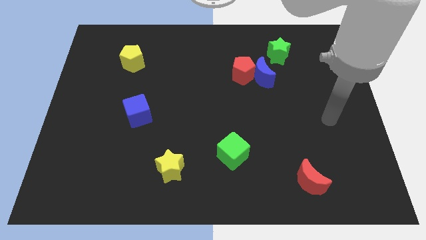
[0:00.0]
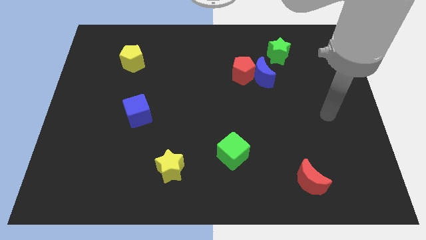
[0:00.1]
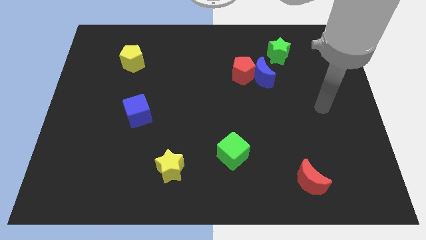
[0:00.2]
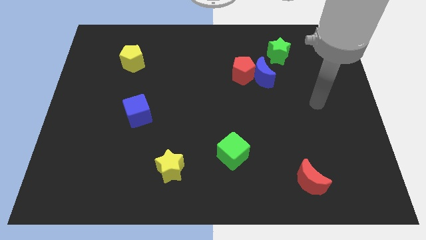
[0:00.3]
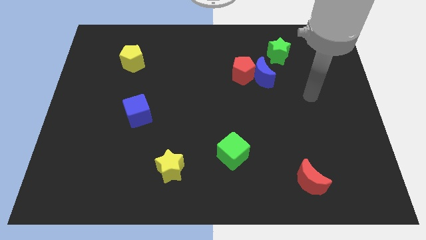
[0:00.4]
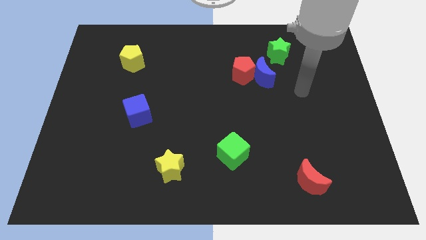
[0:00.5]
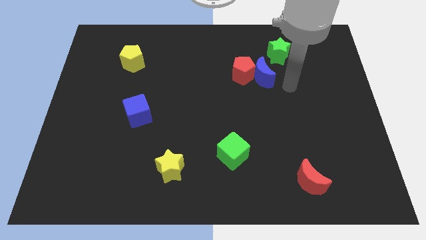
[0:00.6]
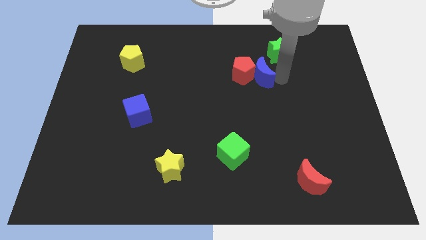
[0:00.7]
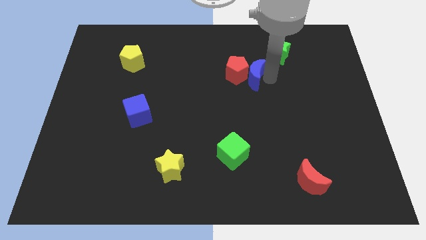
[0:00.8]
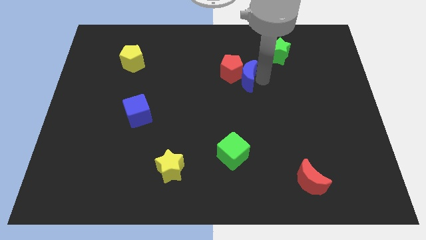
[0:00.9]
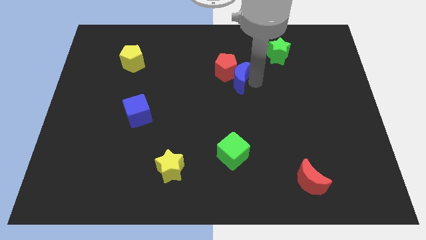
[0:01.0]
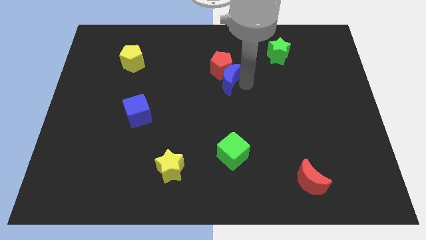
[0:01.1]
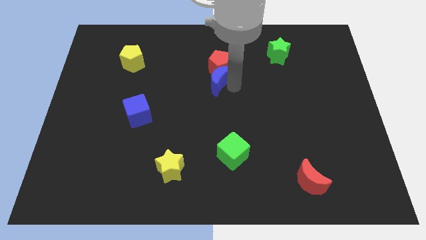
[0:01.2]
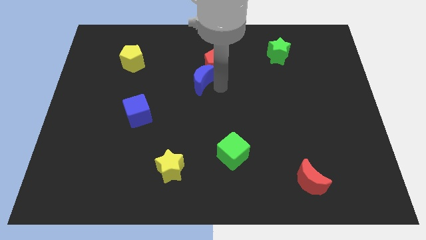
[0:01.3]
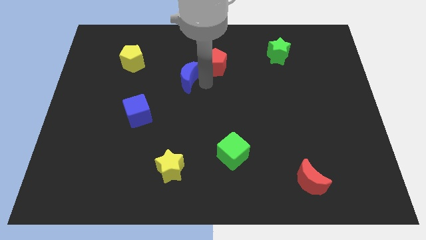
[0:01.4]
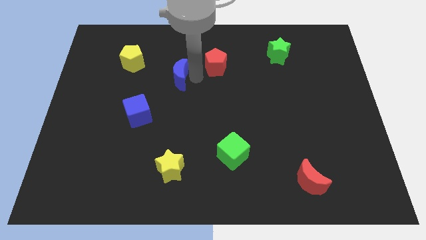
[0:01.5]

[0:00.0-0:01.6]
separate the red pentagon from the blue moon

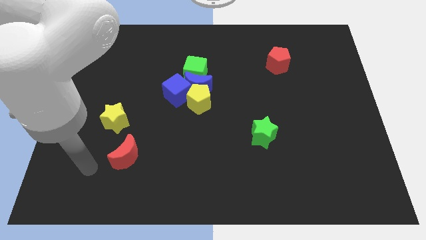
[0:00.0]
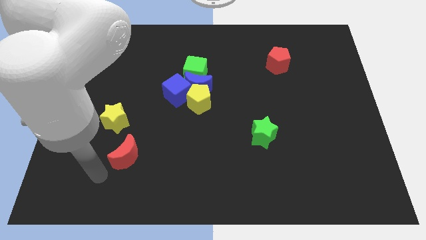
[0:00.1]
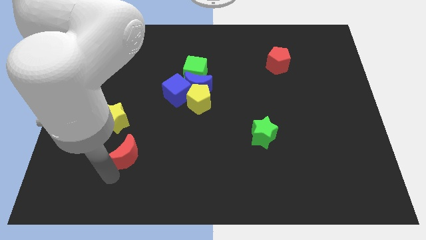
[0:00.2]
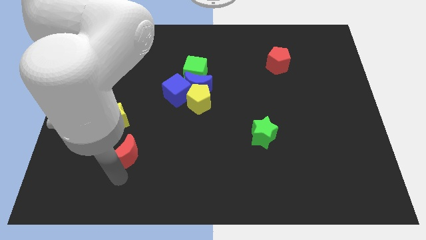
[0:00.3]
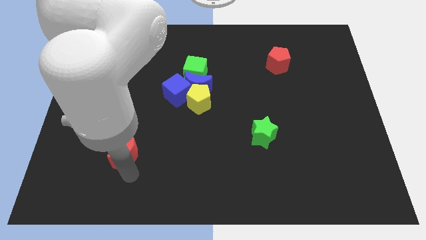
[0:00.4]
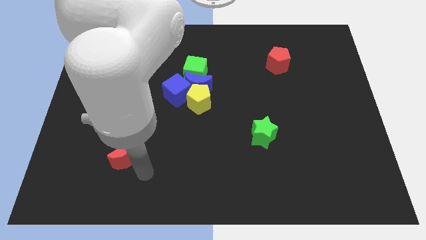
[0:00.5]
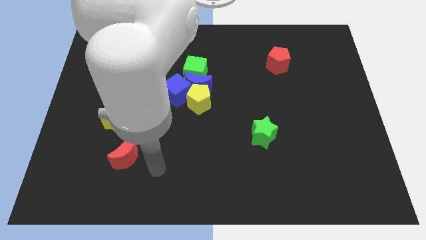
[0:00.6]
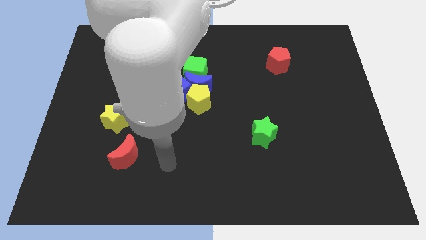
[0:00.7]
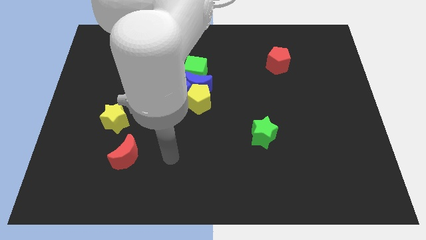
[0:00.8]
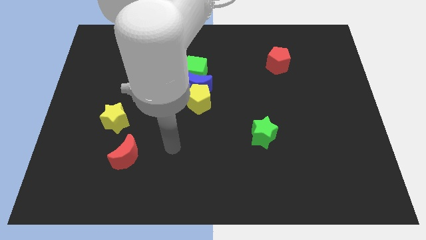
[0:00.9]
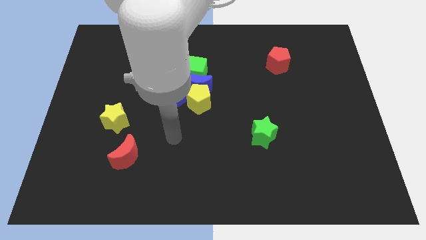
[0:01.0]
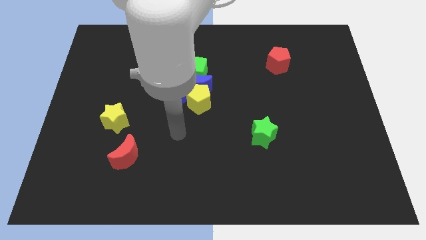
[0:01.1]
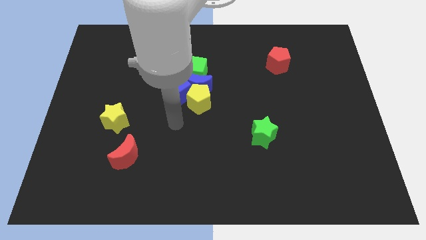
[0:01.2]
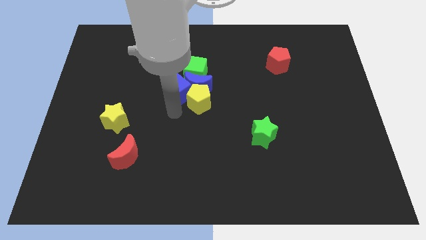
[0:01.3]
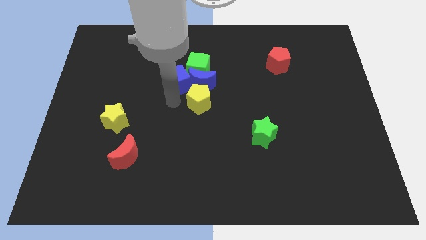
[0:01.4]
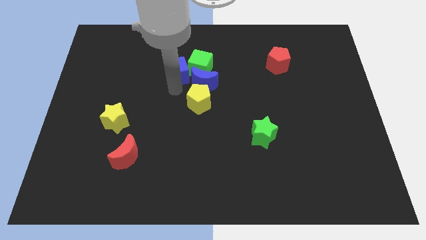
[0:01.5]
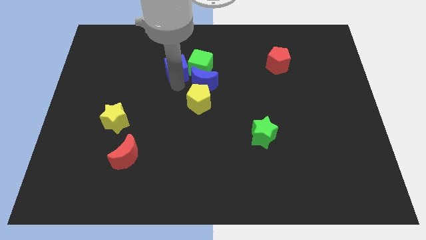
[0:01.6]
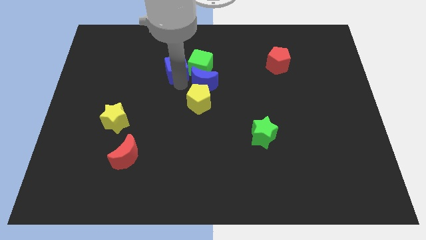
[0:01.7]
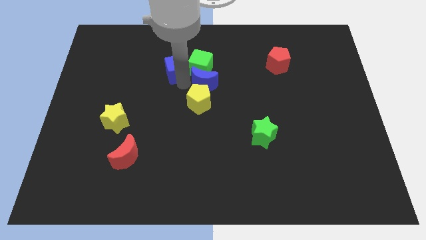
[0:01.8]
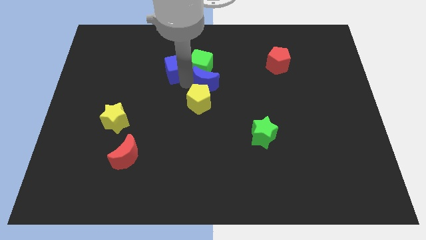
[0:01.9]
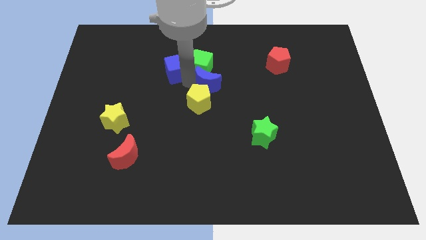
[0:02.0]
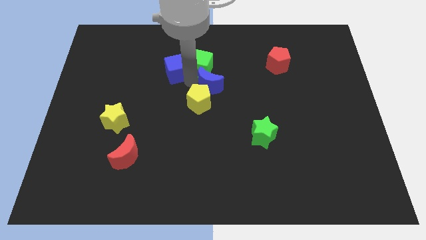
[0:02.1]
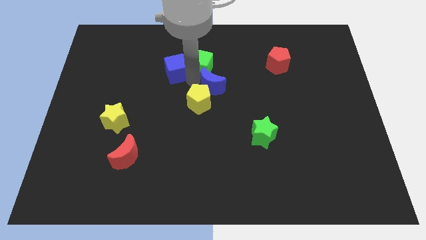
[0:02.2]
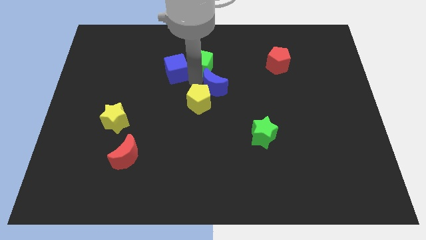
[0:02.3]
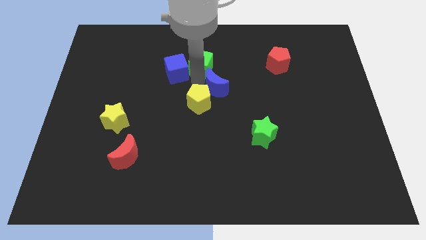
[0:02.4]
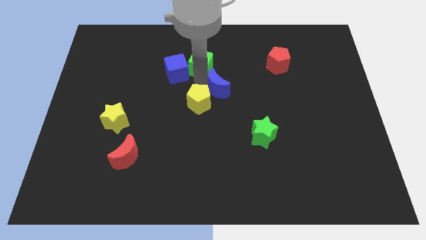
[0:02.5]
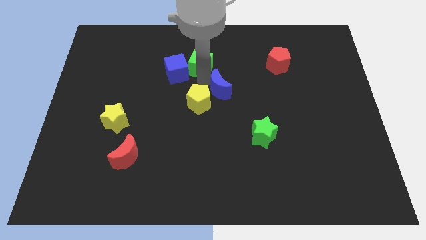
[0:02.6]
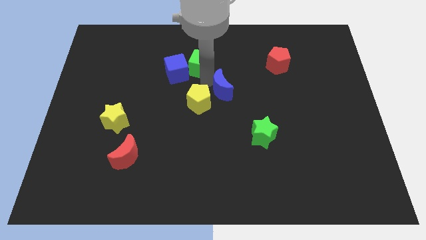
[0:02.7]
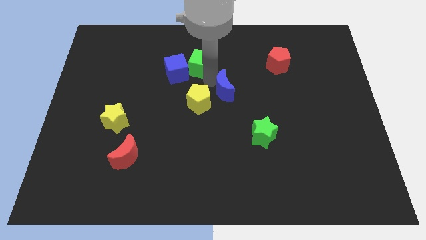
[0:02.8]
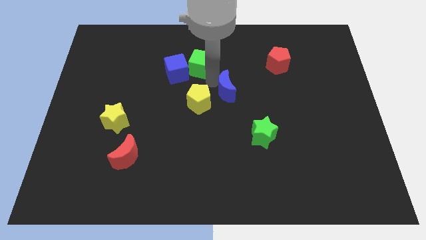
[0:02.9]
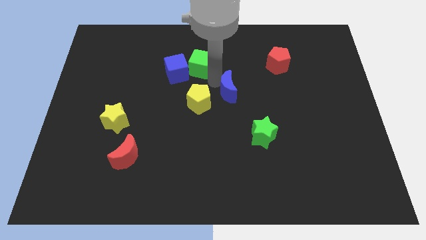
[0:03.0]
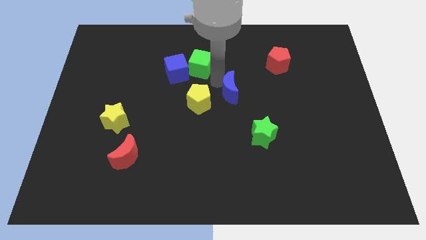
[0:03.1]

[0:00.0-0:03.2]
separate the blue moon from the yellow pentagon, green cube, and blue cube

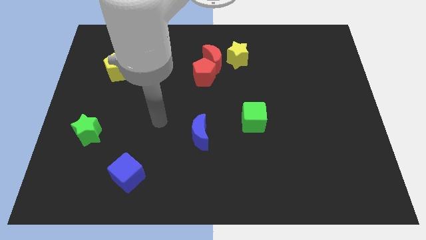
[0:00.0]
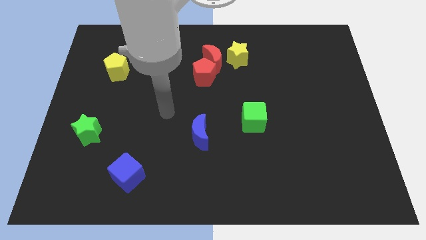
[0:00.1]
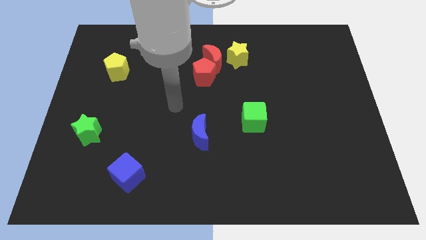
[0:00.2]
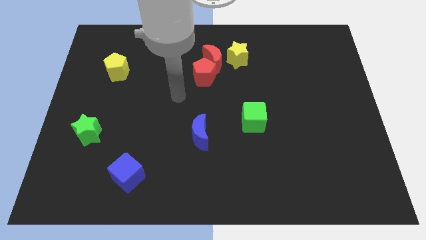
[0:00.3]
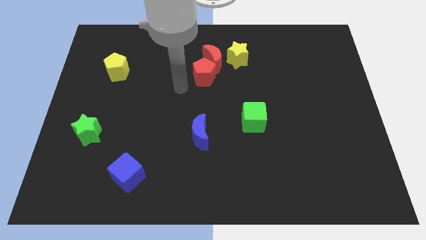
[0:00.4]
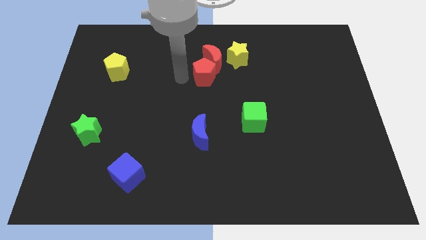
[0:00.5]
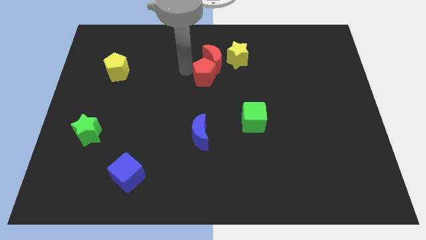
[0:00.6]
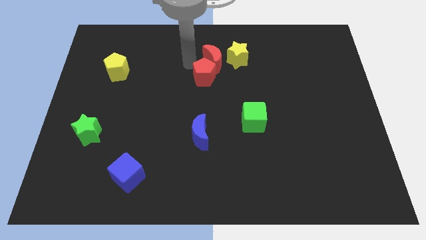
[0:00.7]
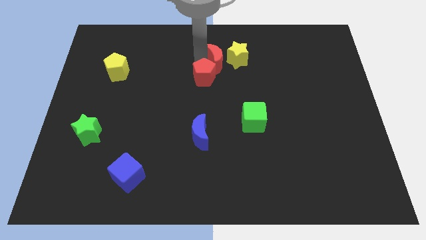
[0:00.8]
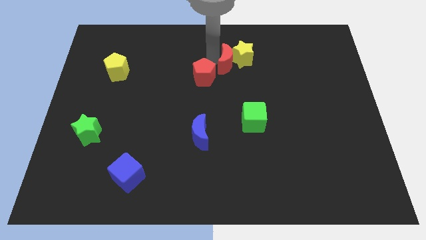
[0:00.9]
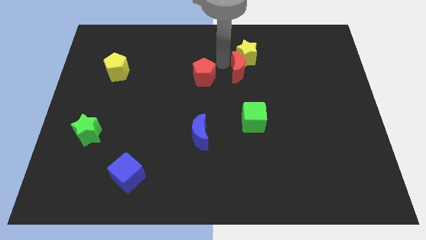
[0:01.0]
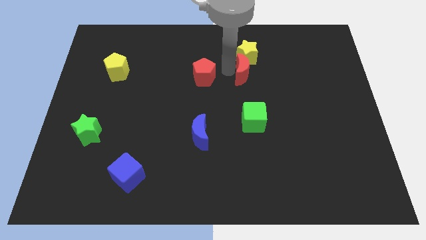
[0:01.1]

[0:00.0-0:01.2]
pull the red pentagon apart from the red moon

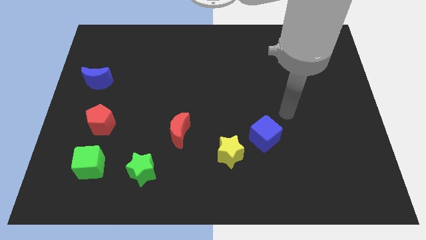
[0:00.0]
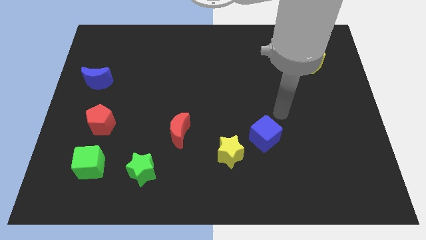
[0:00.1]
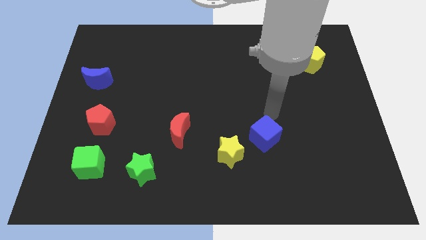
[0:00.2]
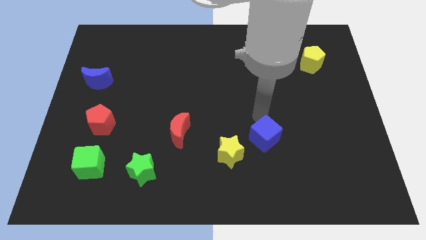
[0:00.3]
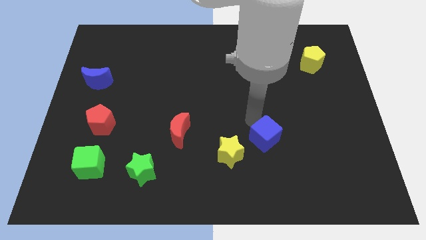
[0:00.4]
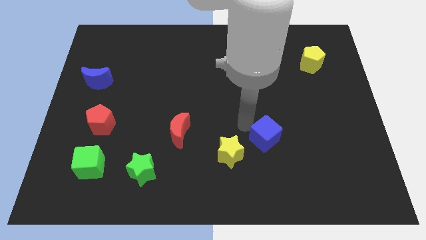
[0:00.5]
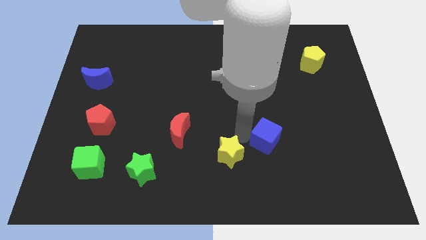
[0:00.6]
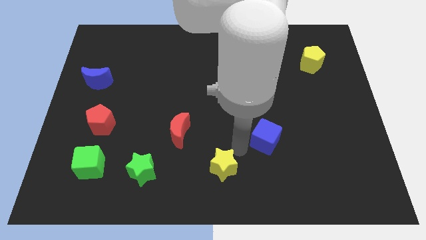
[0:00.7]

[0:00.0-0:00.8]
pull the blue cube apart from the yellow star

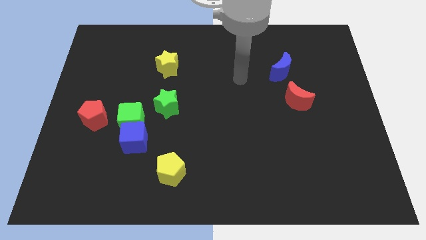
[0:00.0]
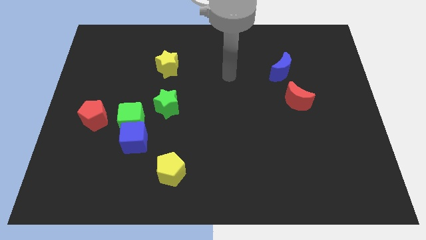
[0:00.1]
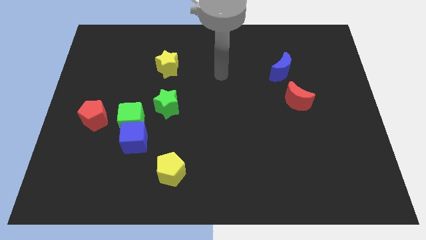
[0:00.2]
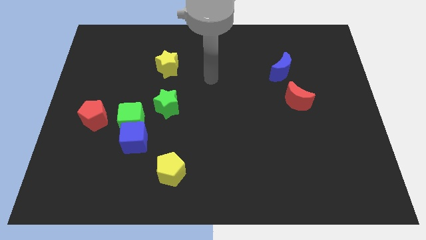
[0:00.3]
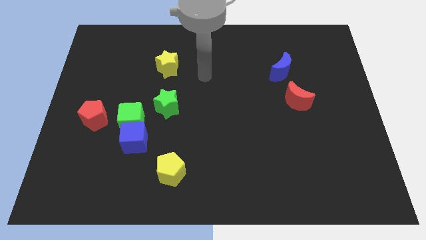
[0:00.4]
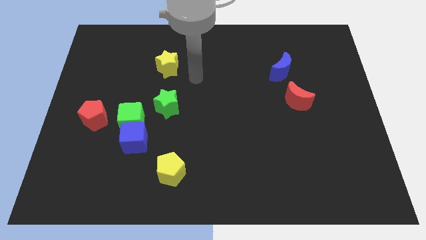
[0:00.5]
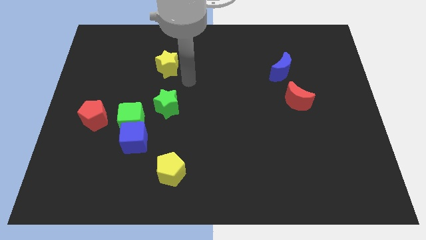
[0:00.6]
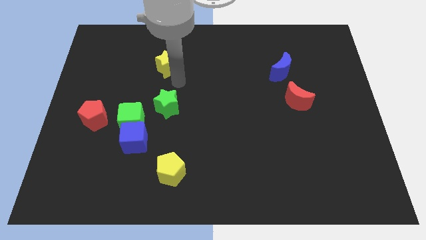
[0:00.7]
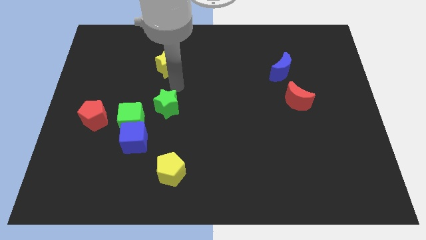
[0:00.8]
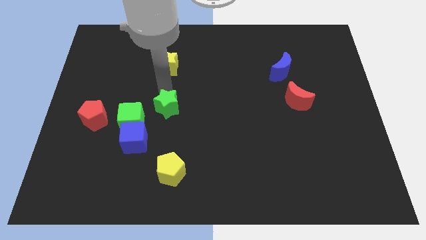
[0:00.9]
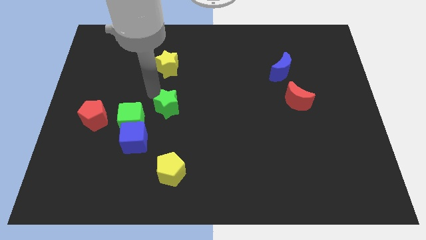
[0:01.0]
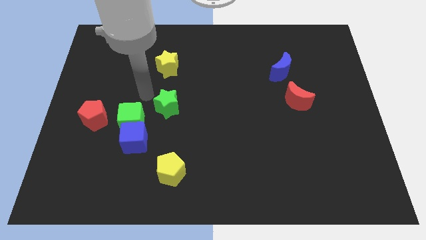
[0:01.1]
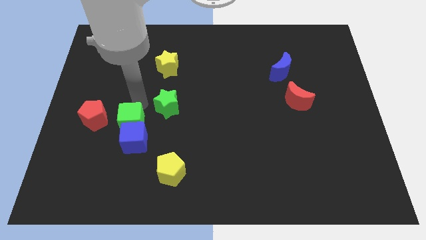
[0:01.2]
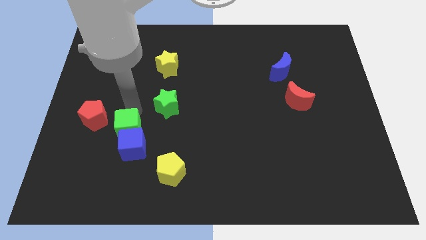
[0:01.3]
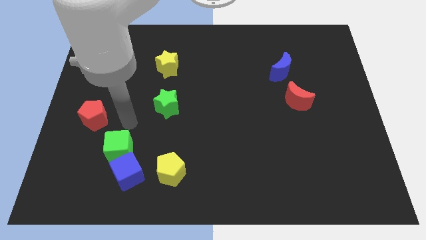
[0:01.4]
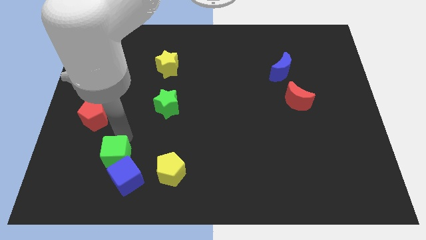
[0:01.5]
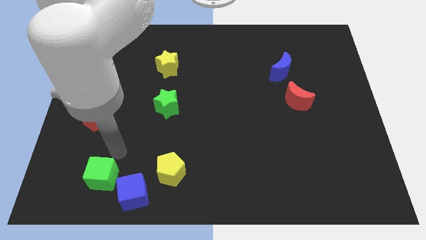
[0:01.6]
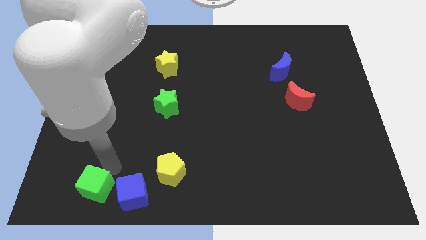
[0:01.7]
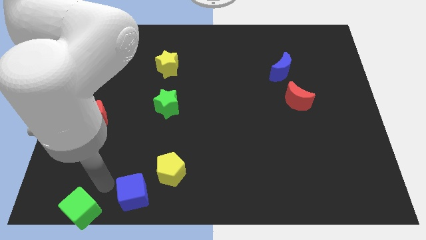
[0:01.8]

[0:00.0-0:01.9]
separate the blue cube from the green cube

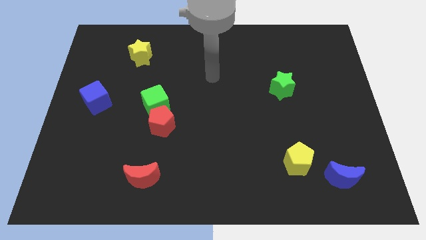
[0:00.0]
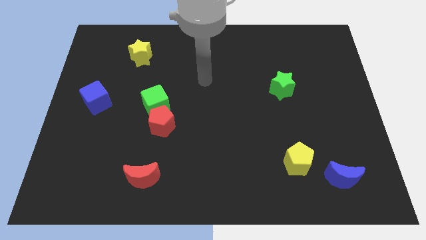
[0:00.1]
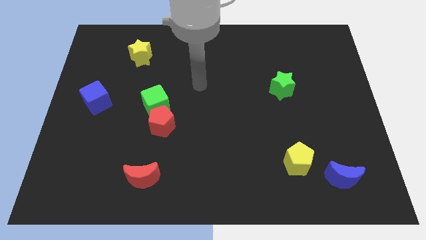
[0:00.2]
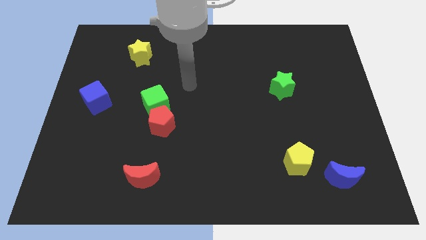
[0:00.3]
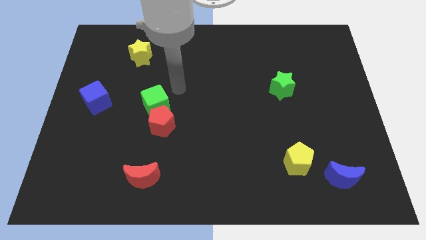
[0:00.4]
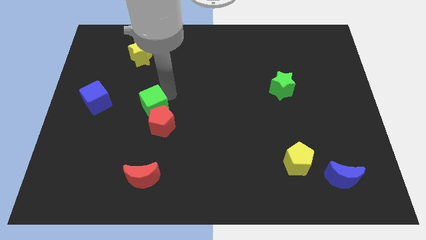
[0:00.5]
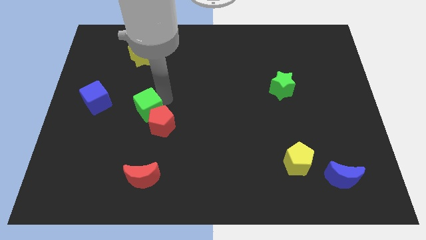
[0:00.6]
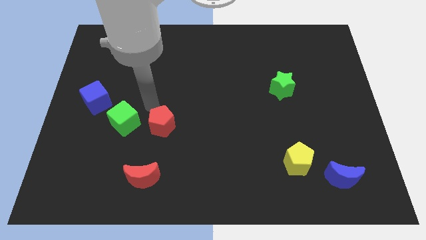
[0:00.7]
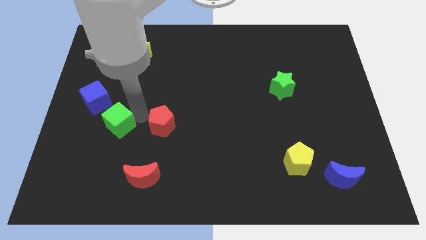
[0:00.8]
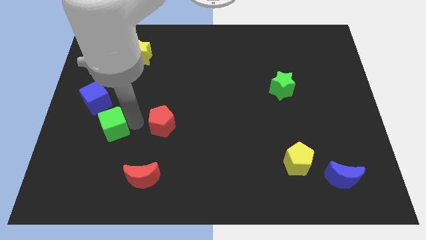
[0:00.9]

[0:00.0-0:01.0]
move the red pentagon away from the green cube
